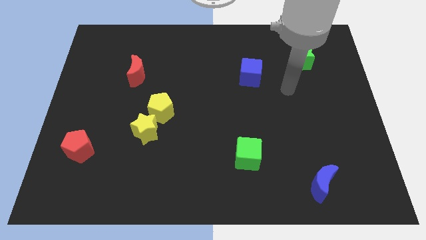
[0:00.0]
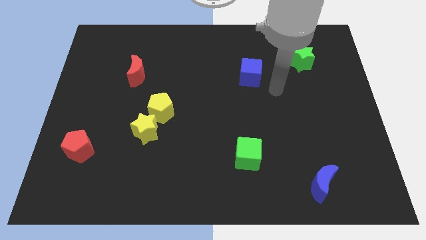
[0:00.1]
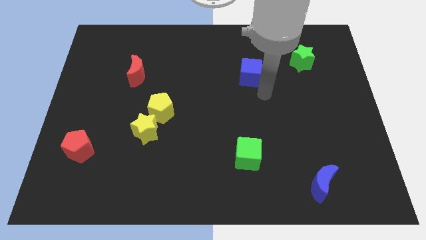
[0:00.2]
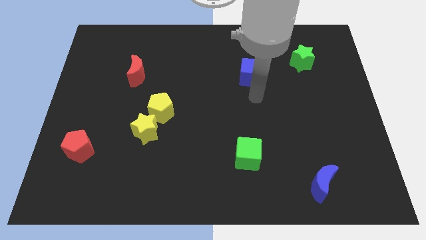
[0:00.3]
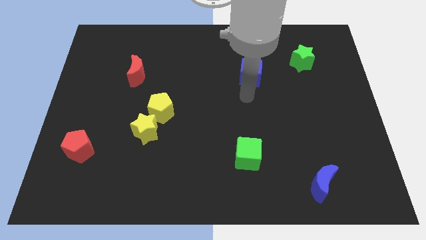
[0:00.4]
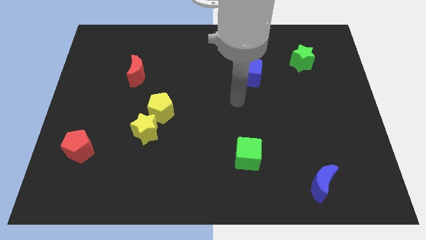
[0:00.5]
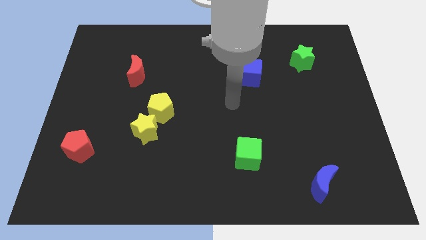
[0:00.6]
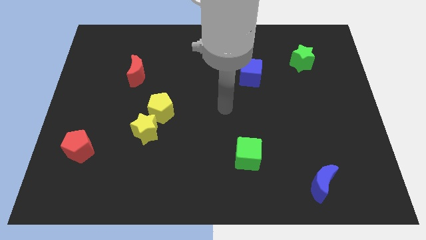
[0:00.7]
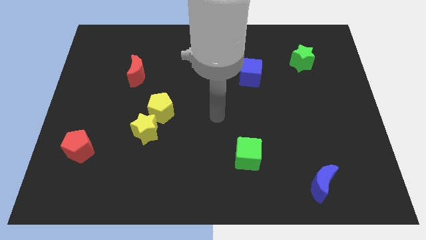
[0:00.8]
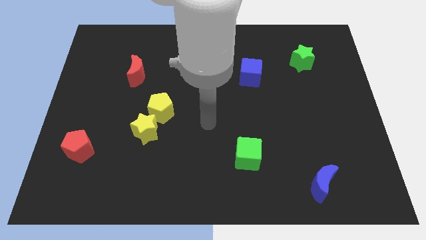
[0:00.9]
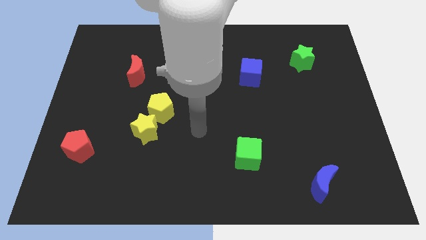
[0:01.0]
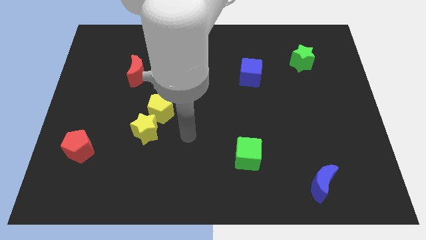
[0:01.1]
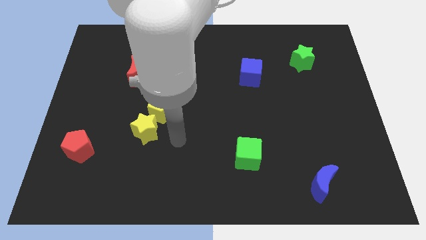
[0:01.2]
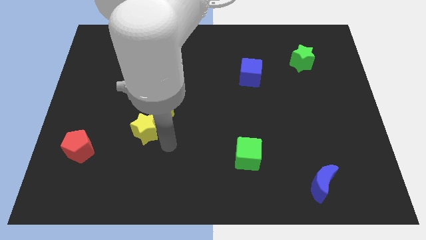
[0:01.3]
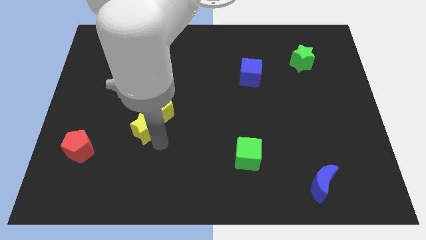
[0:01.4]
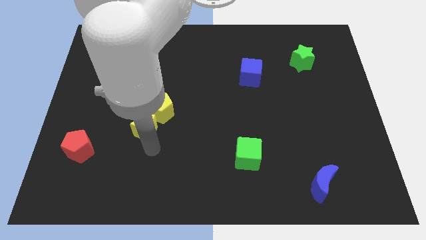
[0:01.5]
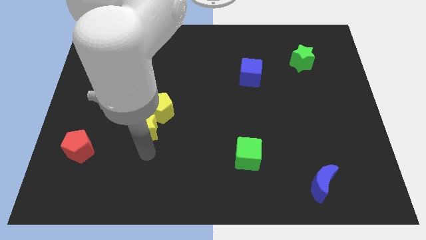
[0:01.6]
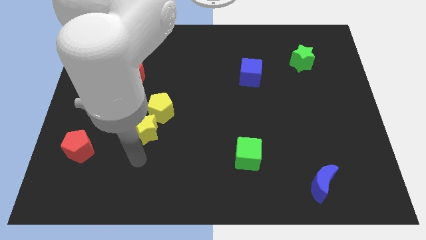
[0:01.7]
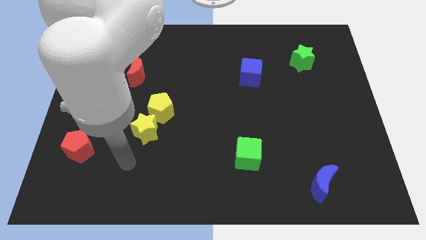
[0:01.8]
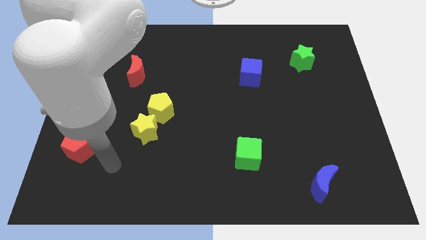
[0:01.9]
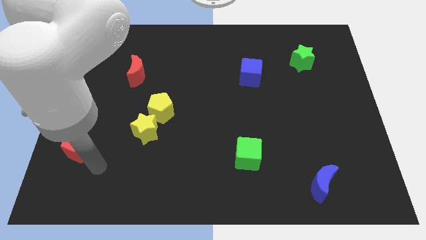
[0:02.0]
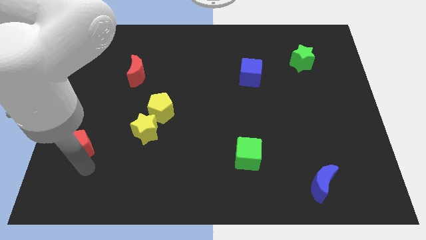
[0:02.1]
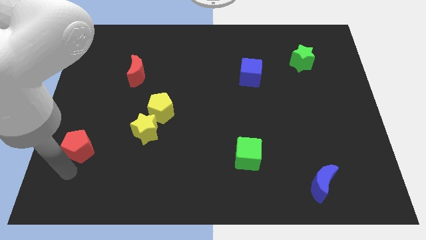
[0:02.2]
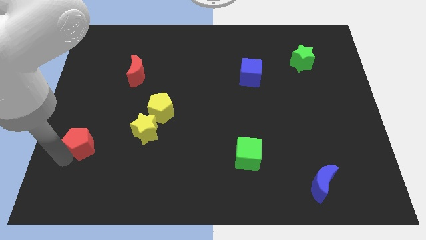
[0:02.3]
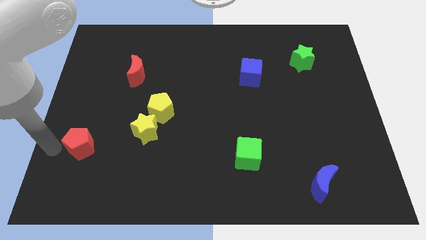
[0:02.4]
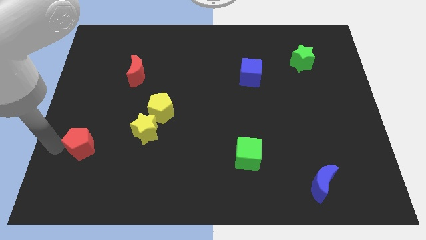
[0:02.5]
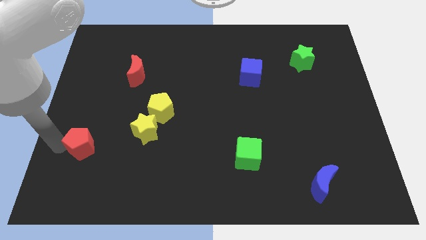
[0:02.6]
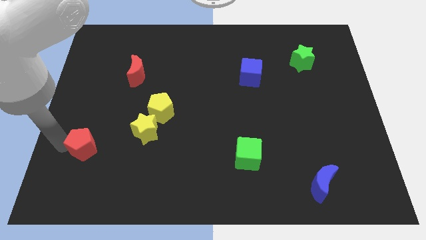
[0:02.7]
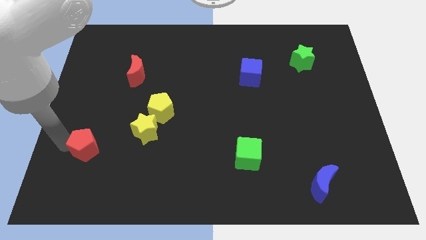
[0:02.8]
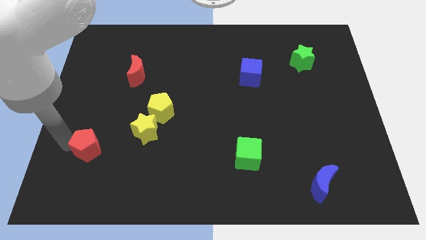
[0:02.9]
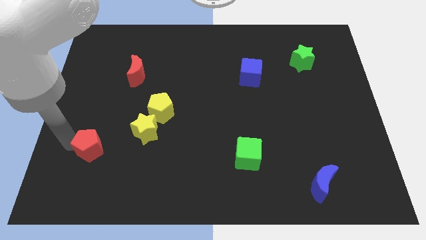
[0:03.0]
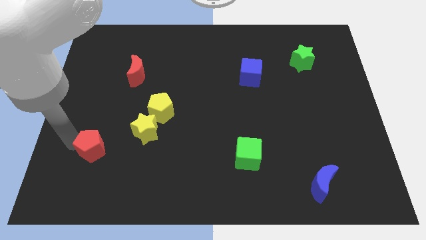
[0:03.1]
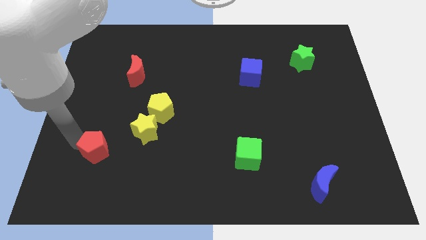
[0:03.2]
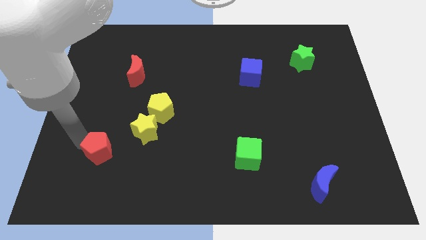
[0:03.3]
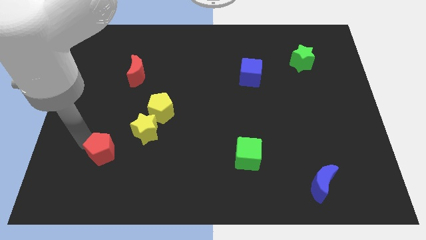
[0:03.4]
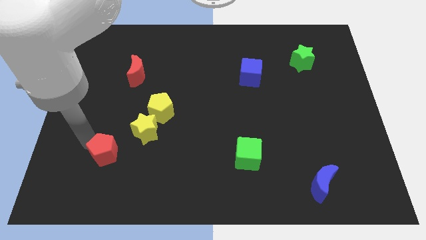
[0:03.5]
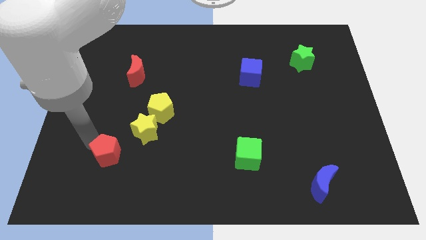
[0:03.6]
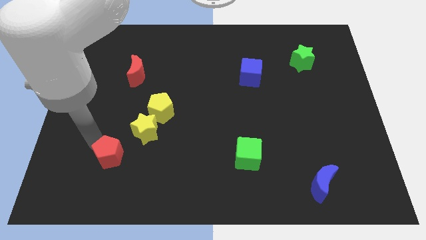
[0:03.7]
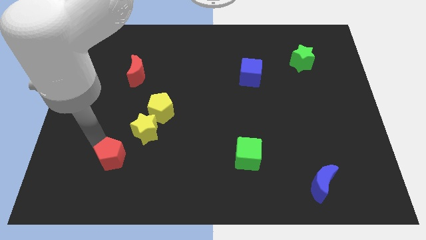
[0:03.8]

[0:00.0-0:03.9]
slide the red pentagon a little bit right

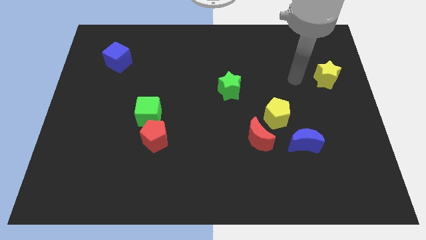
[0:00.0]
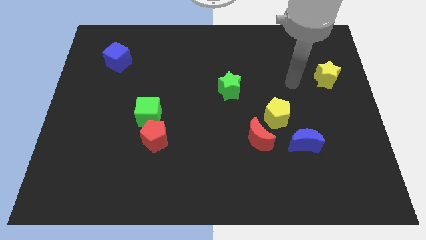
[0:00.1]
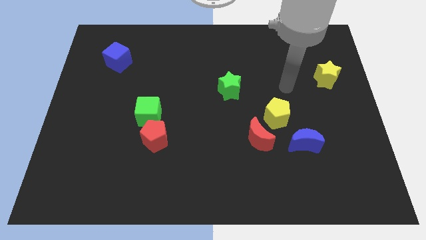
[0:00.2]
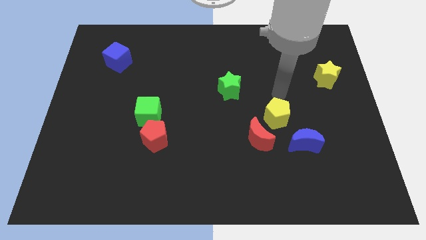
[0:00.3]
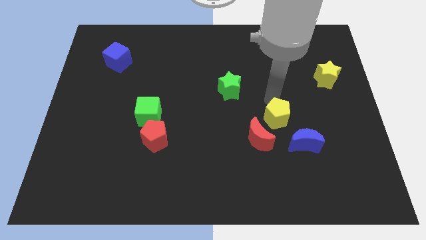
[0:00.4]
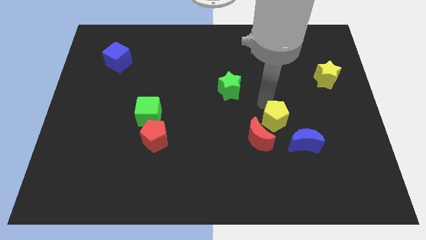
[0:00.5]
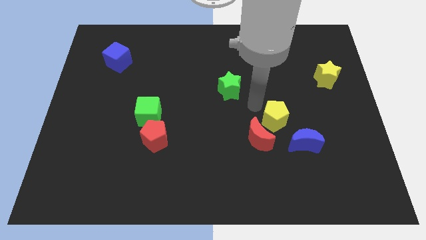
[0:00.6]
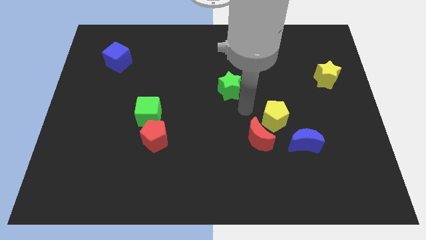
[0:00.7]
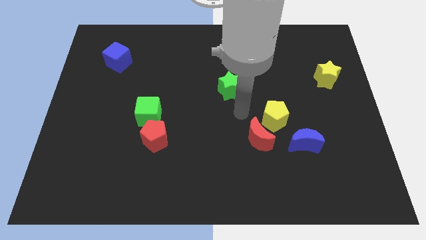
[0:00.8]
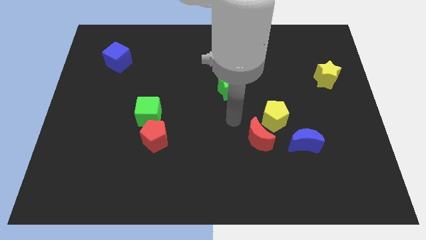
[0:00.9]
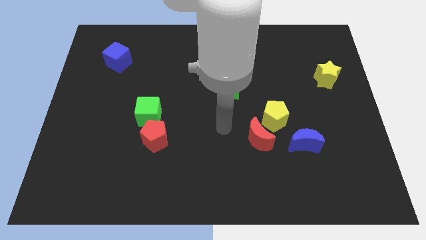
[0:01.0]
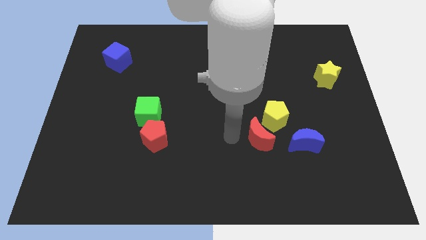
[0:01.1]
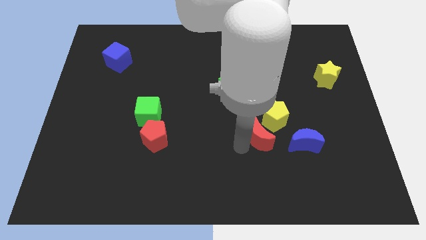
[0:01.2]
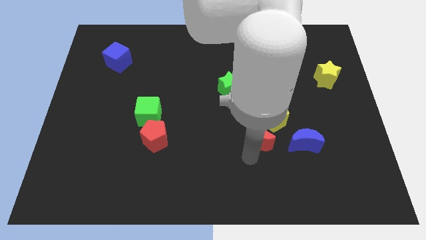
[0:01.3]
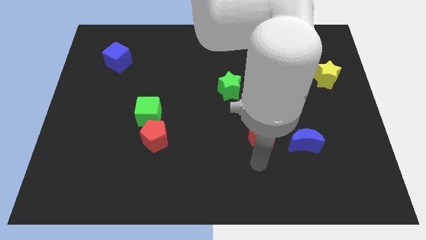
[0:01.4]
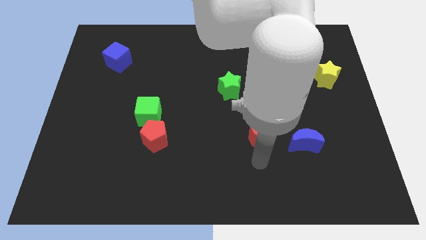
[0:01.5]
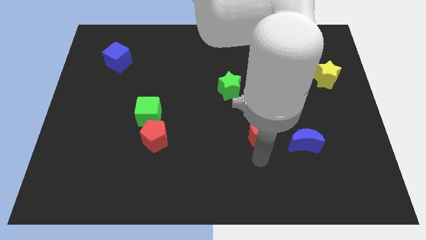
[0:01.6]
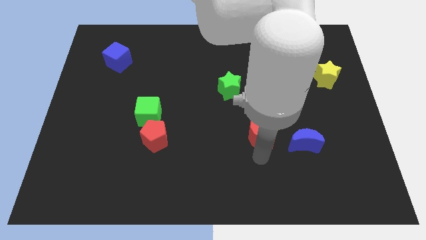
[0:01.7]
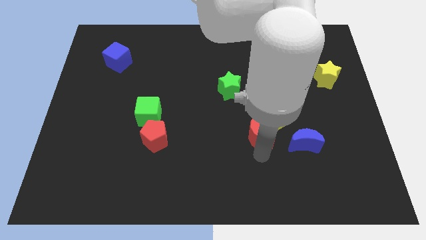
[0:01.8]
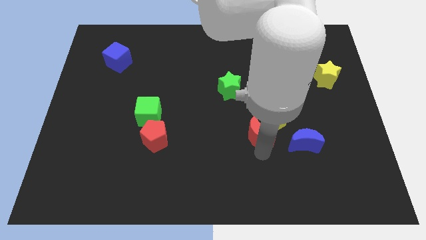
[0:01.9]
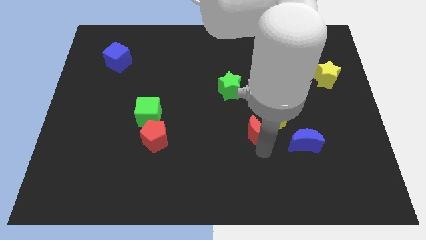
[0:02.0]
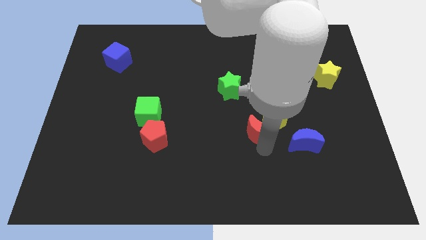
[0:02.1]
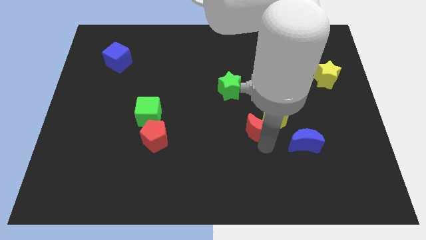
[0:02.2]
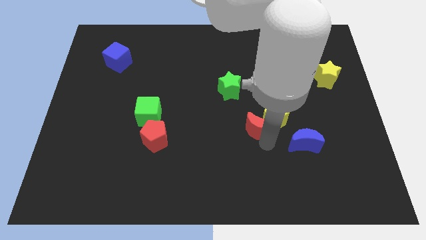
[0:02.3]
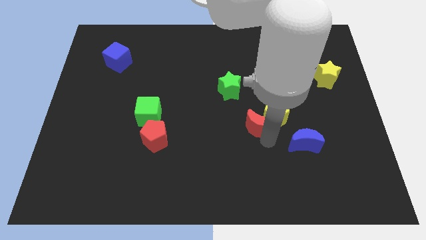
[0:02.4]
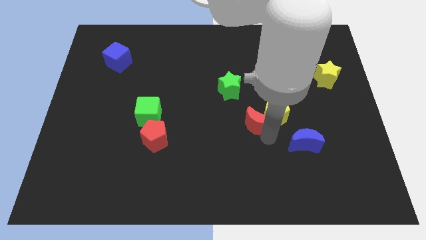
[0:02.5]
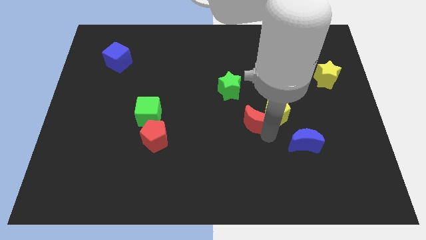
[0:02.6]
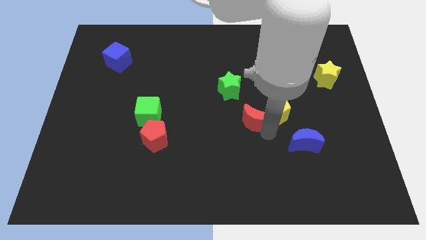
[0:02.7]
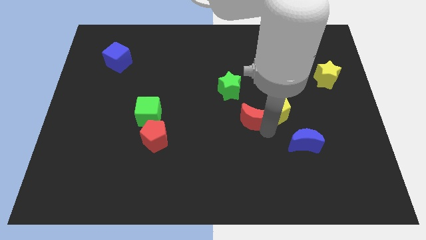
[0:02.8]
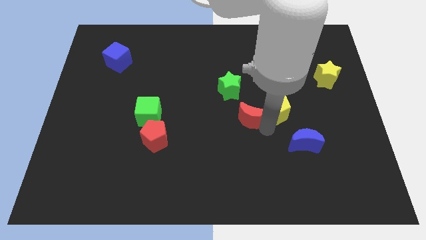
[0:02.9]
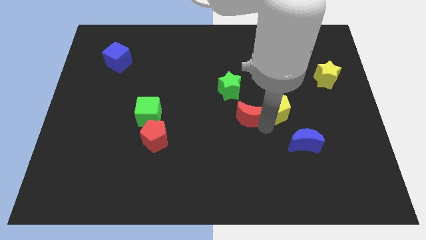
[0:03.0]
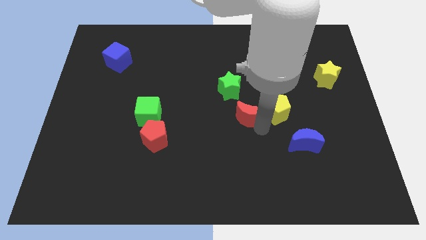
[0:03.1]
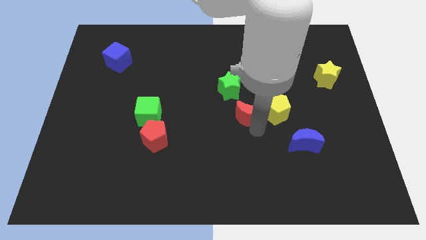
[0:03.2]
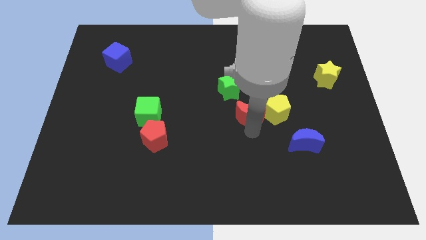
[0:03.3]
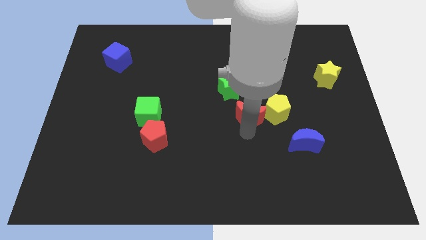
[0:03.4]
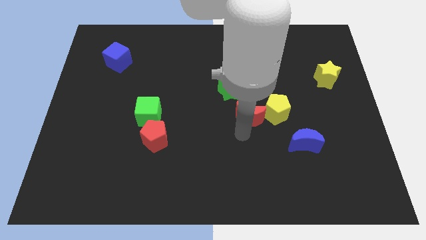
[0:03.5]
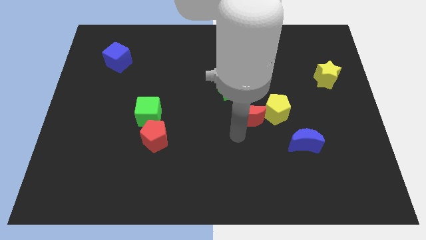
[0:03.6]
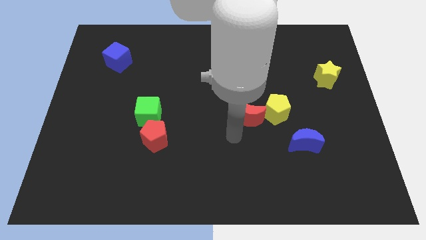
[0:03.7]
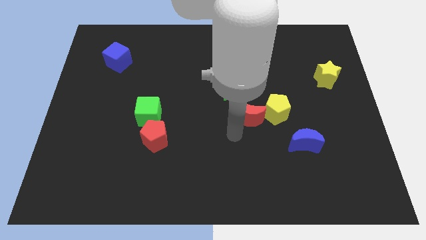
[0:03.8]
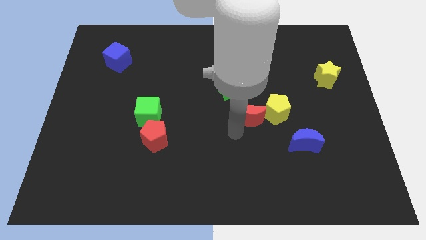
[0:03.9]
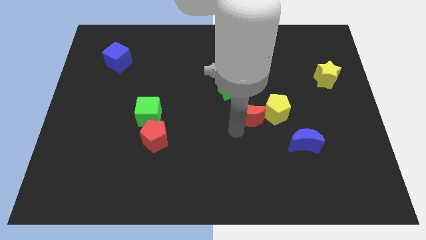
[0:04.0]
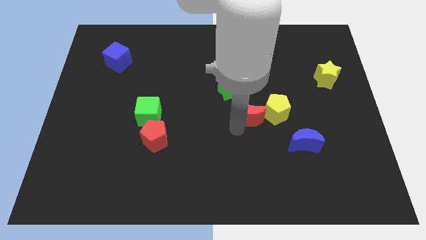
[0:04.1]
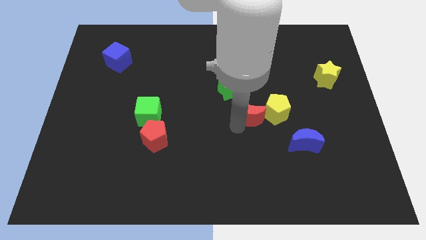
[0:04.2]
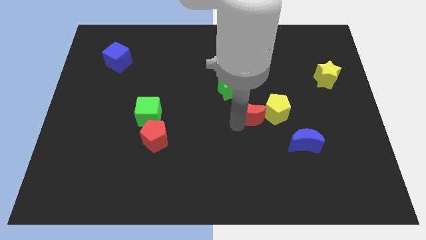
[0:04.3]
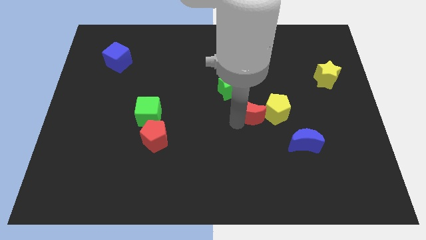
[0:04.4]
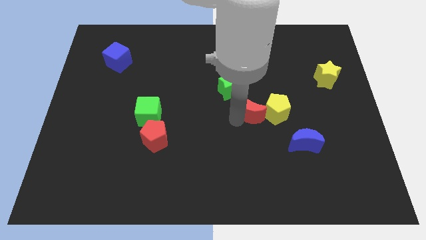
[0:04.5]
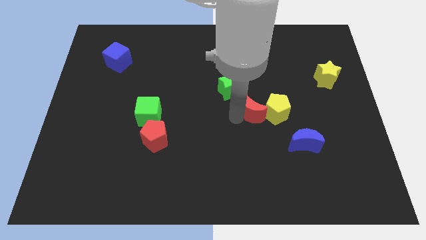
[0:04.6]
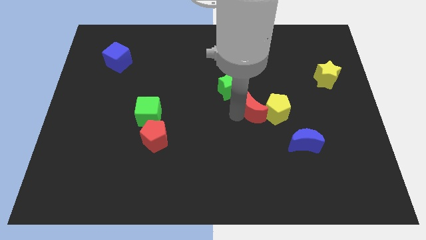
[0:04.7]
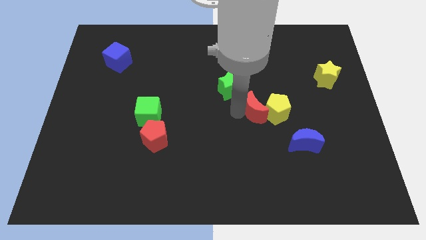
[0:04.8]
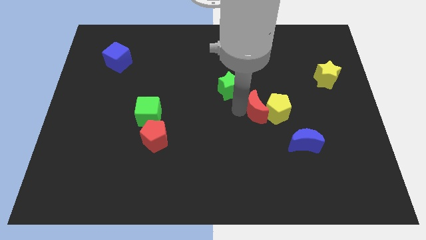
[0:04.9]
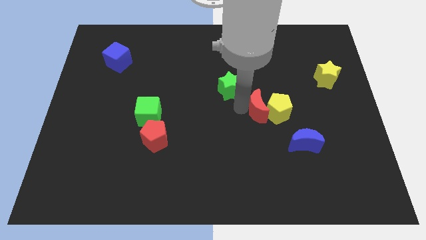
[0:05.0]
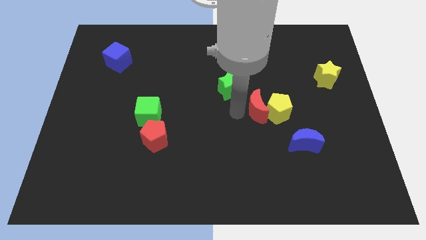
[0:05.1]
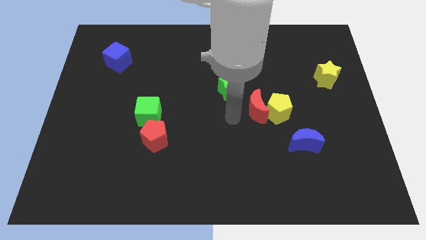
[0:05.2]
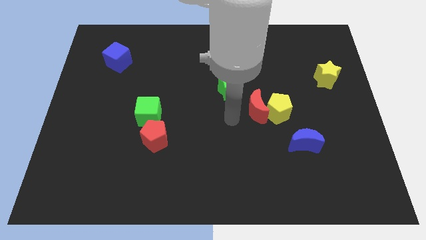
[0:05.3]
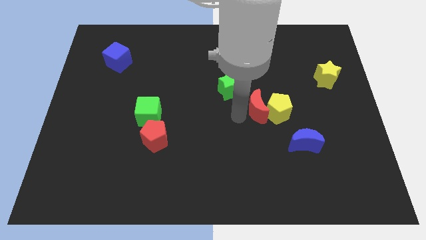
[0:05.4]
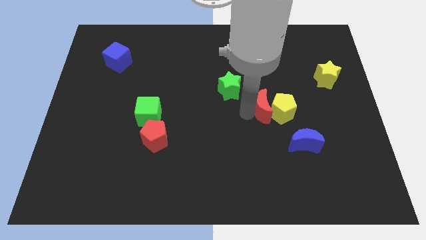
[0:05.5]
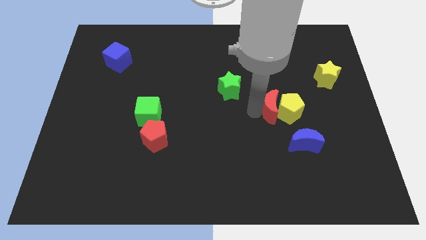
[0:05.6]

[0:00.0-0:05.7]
slide the red moon diagonally upwards and to the right somewhat
